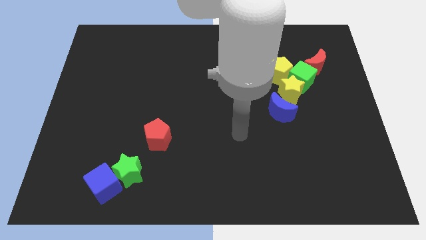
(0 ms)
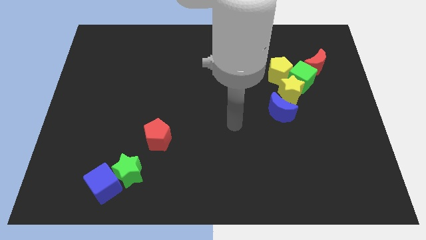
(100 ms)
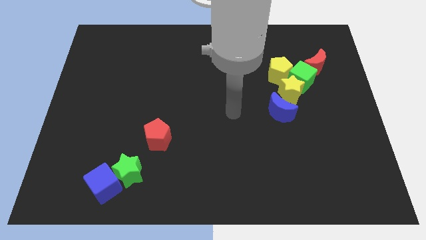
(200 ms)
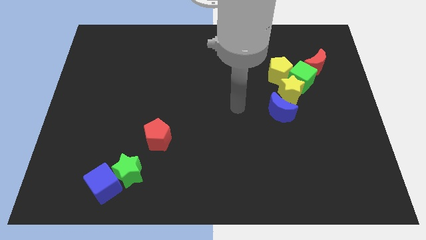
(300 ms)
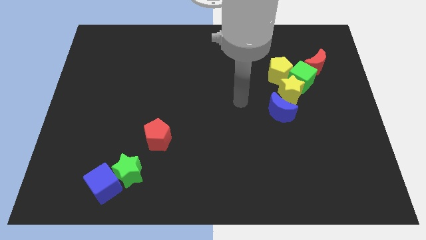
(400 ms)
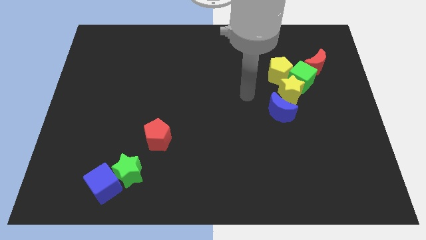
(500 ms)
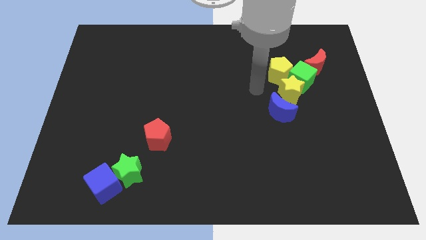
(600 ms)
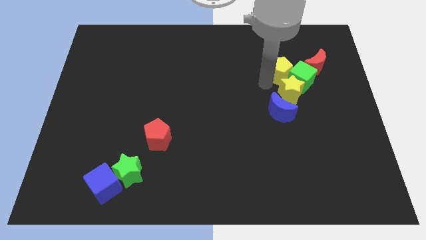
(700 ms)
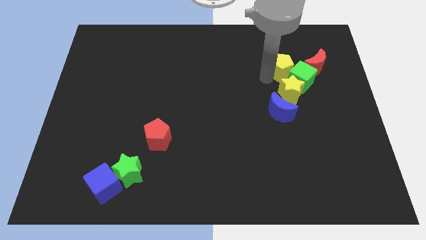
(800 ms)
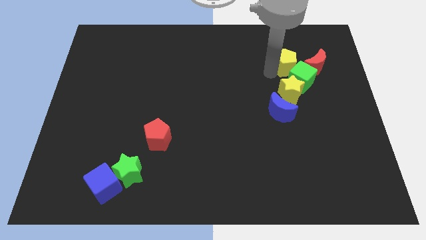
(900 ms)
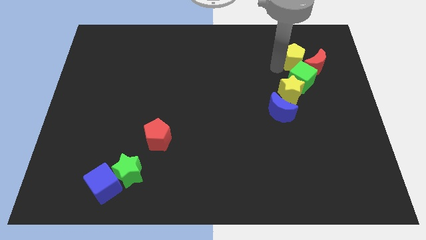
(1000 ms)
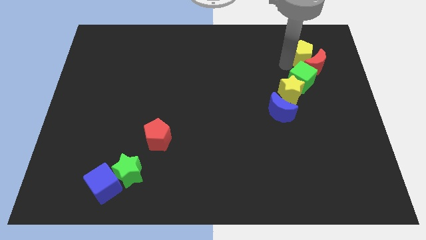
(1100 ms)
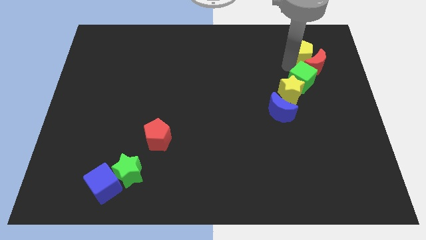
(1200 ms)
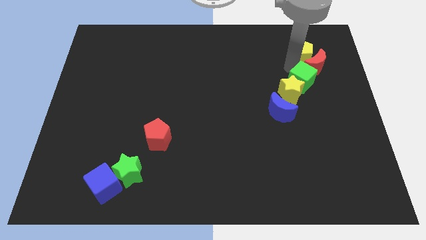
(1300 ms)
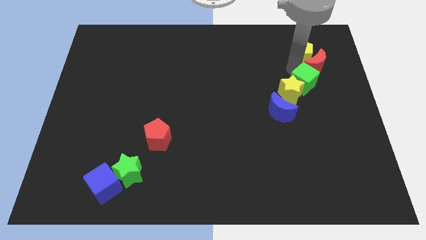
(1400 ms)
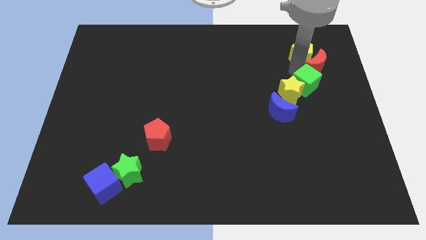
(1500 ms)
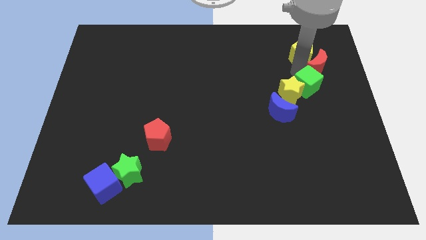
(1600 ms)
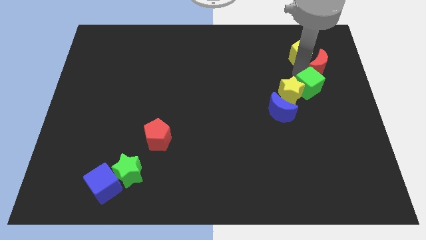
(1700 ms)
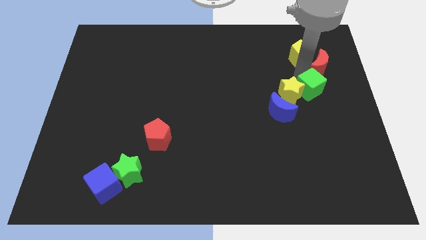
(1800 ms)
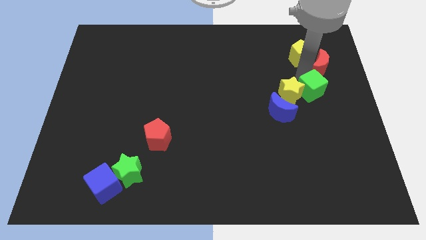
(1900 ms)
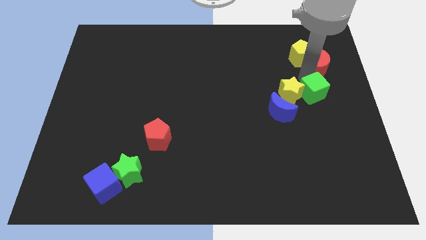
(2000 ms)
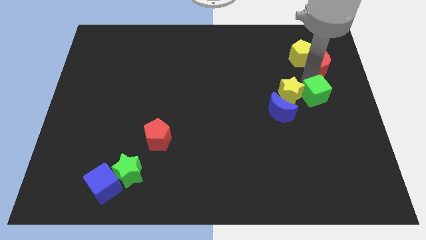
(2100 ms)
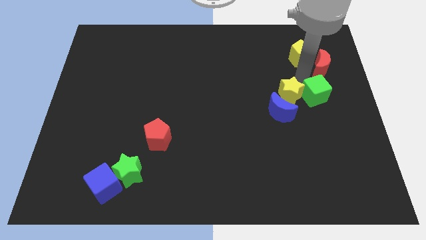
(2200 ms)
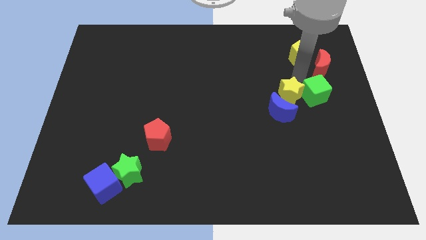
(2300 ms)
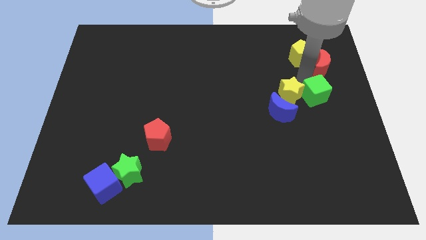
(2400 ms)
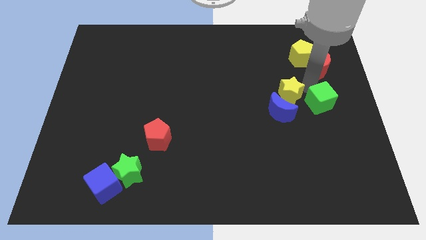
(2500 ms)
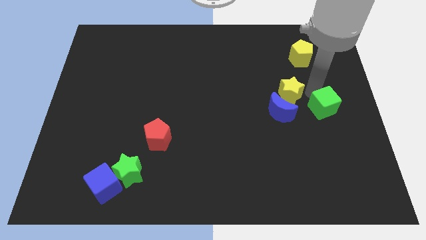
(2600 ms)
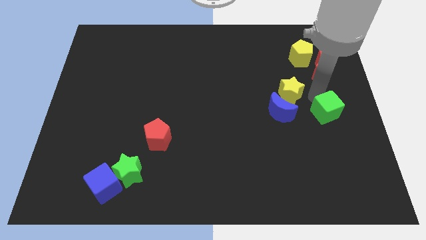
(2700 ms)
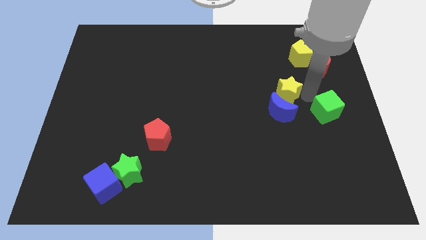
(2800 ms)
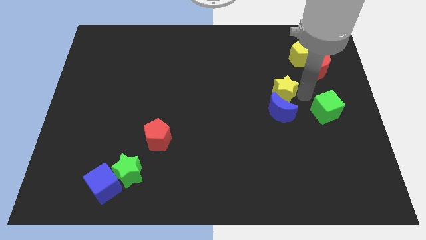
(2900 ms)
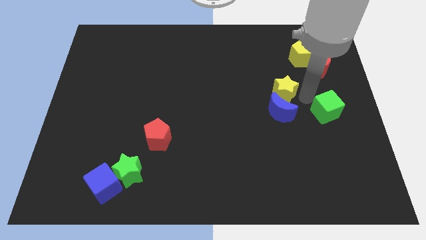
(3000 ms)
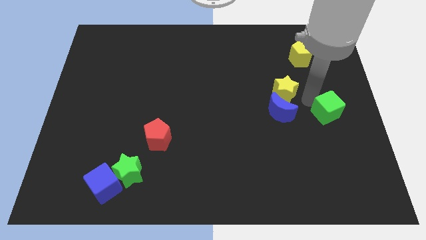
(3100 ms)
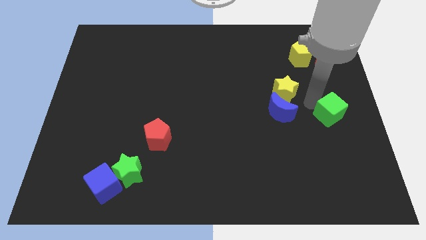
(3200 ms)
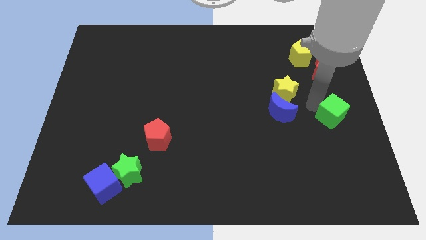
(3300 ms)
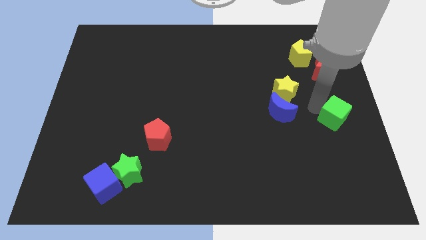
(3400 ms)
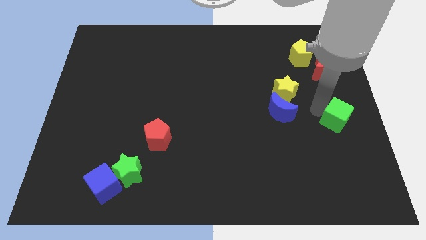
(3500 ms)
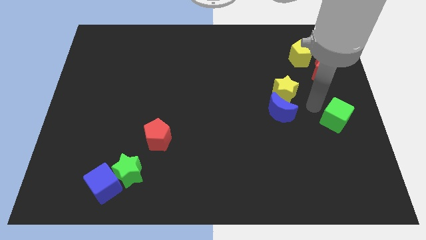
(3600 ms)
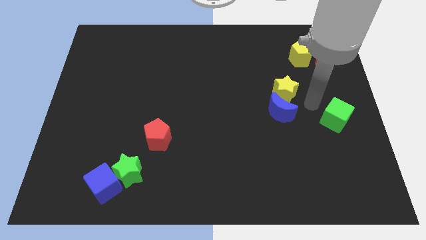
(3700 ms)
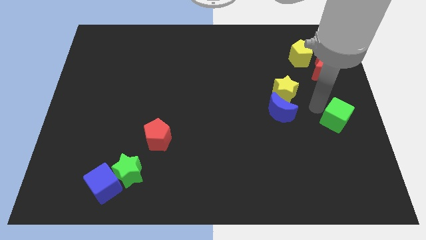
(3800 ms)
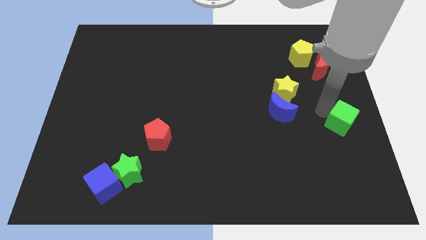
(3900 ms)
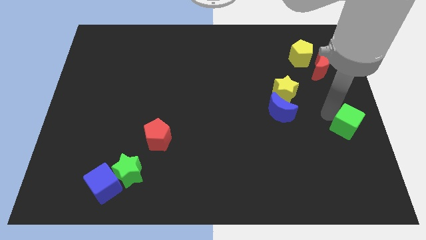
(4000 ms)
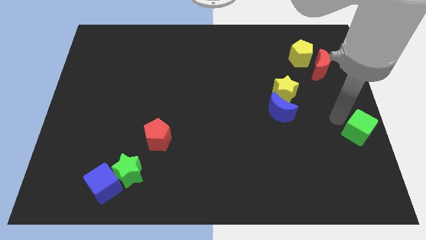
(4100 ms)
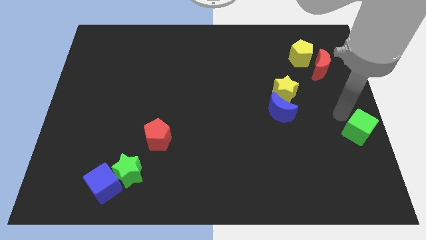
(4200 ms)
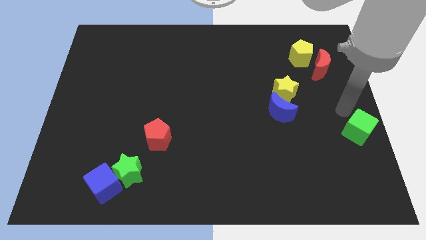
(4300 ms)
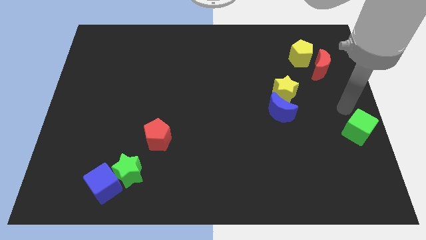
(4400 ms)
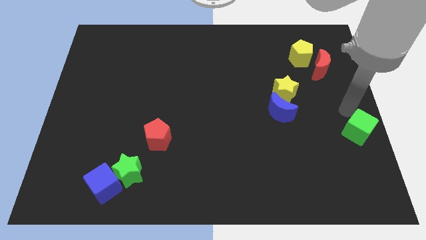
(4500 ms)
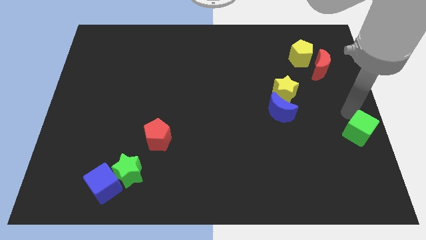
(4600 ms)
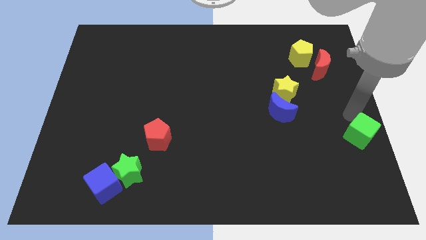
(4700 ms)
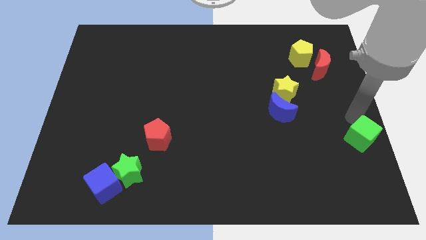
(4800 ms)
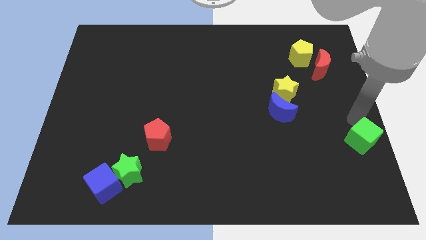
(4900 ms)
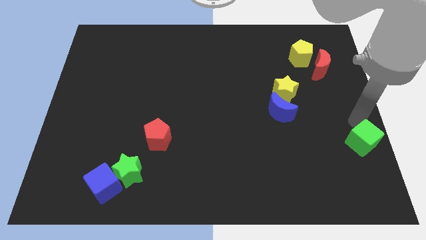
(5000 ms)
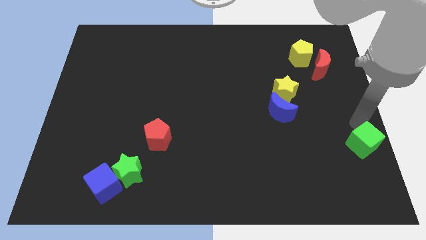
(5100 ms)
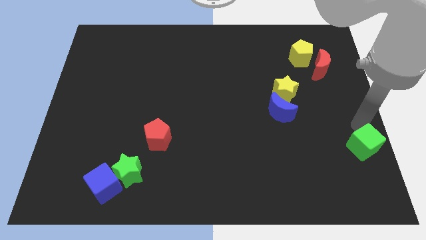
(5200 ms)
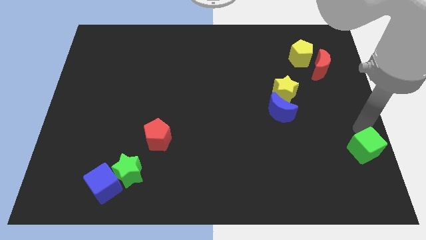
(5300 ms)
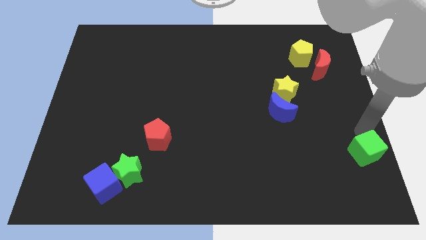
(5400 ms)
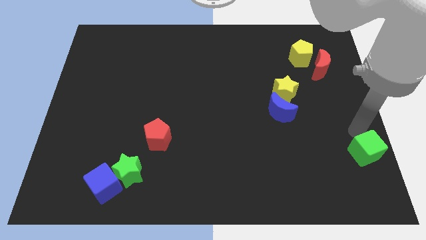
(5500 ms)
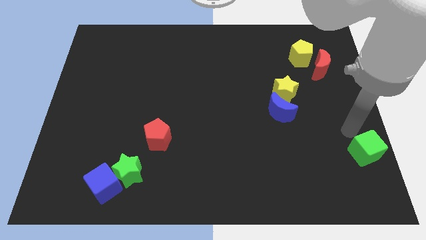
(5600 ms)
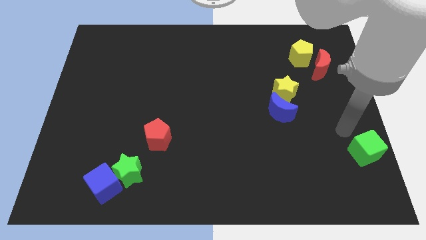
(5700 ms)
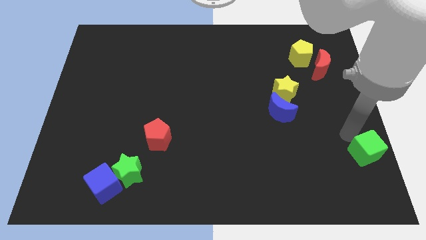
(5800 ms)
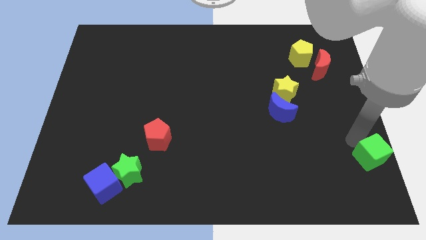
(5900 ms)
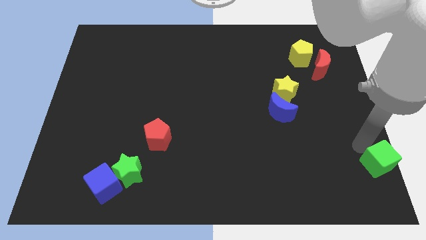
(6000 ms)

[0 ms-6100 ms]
move the green cube to the bottom right

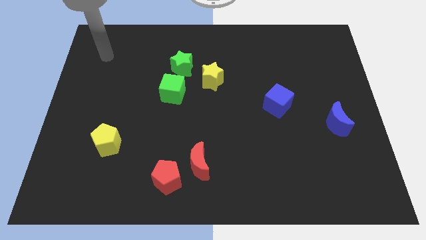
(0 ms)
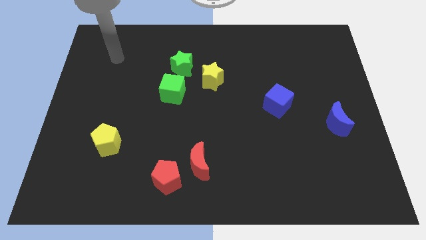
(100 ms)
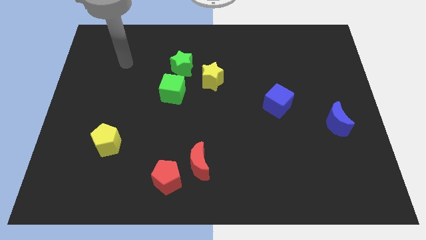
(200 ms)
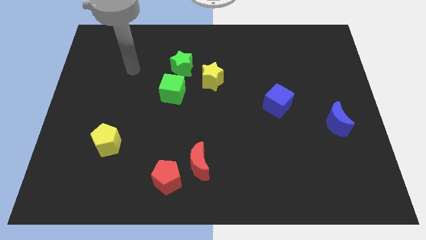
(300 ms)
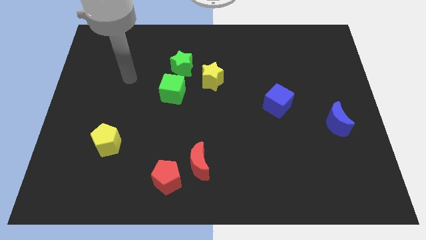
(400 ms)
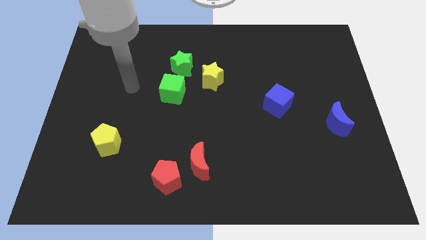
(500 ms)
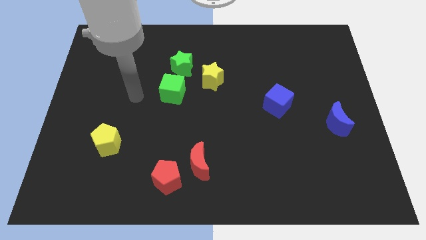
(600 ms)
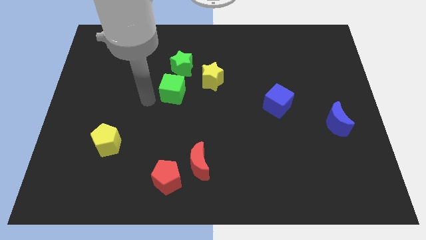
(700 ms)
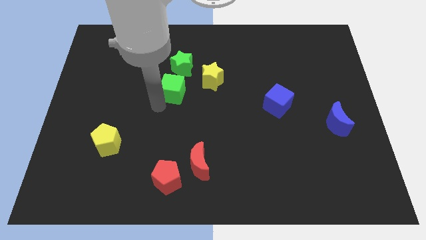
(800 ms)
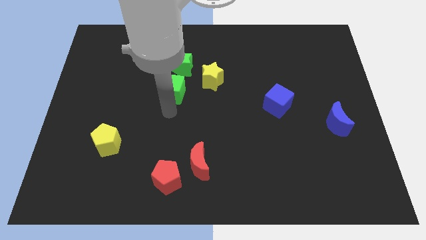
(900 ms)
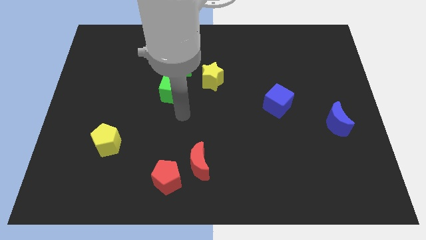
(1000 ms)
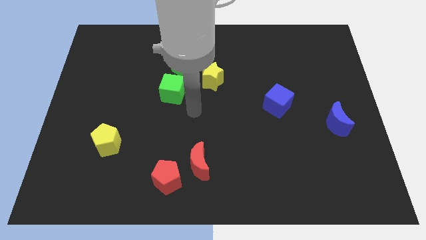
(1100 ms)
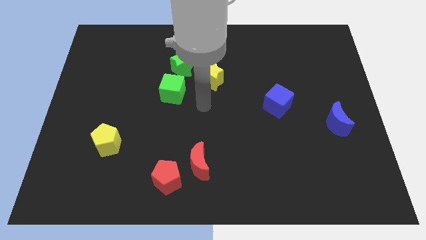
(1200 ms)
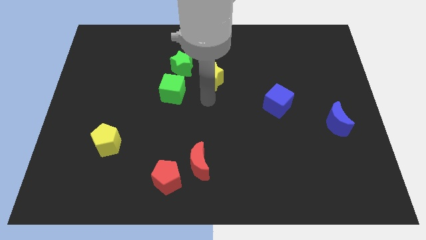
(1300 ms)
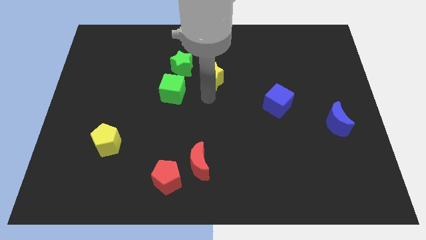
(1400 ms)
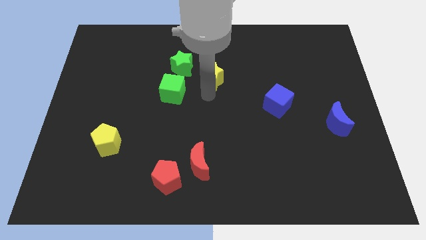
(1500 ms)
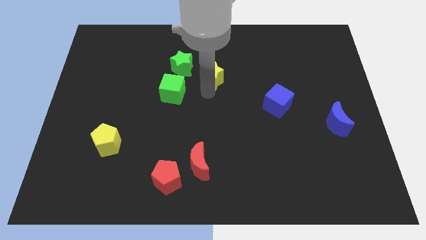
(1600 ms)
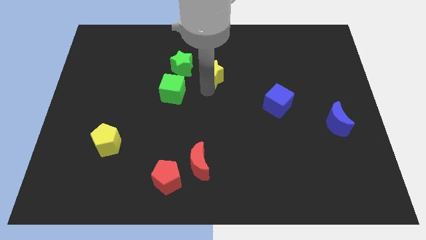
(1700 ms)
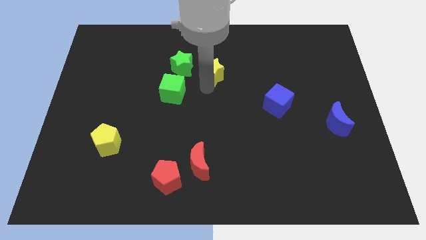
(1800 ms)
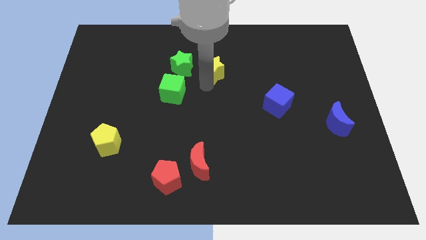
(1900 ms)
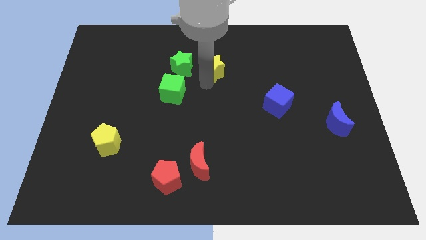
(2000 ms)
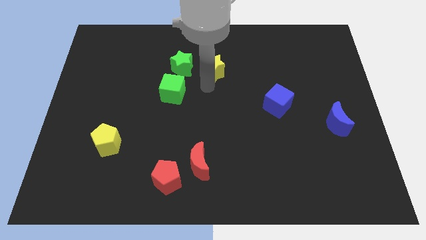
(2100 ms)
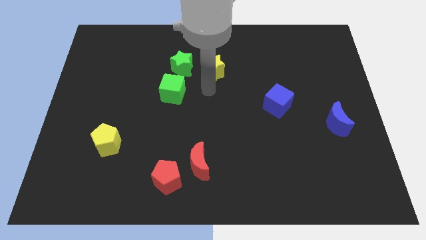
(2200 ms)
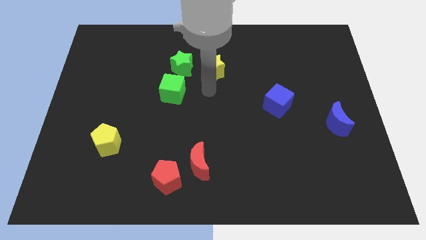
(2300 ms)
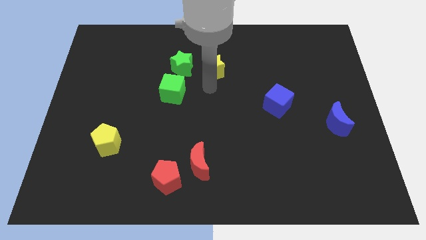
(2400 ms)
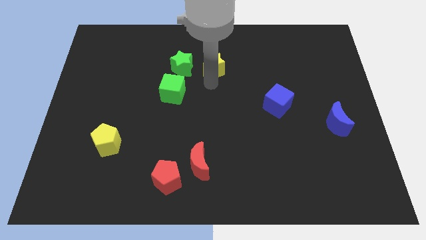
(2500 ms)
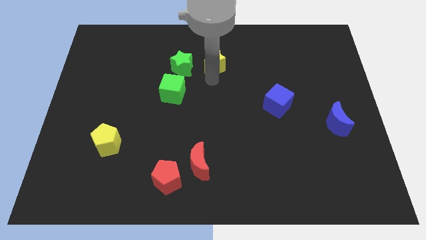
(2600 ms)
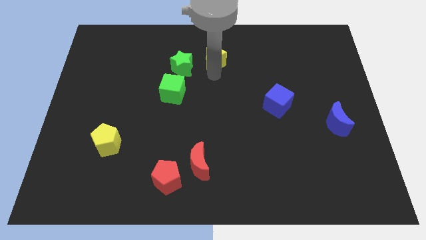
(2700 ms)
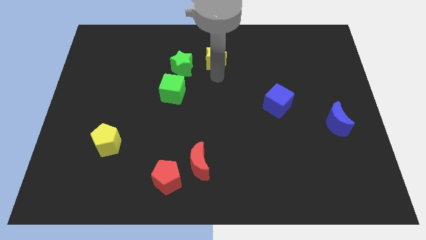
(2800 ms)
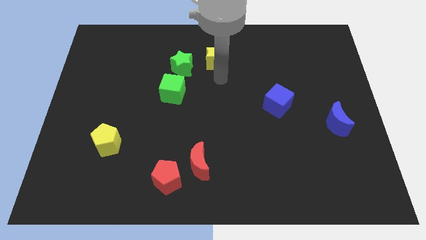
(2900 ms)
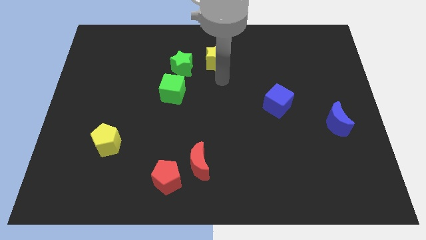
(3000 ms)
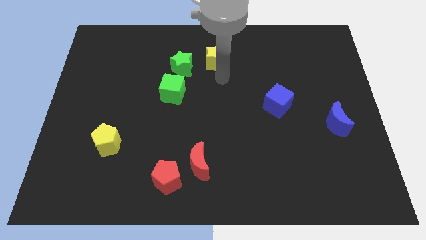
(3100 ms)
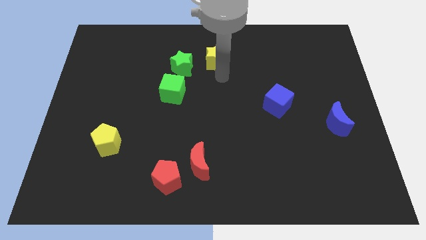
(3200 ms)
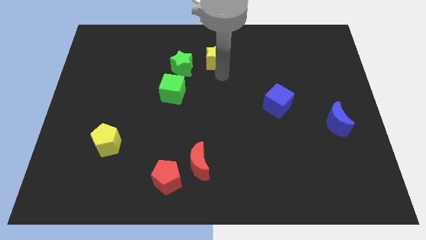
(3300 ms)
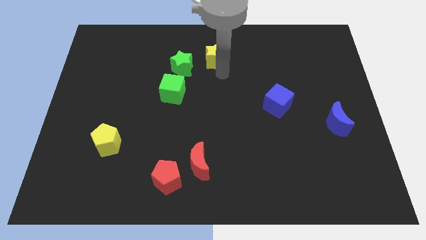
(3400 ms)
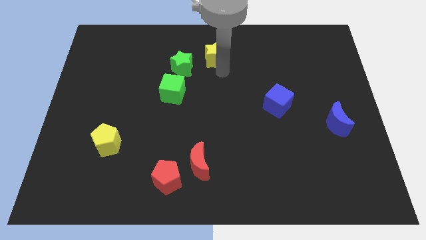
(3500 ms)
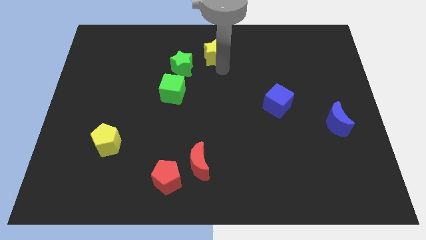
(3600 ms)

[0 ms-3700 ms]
push the yellow star to the top side
